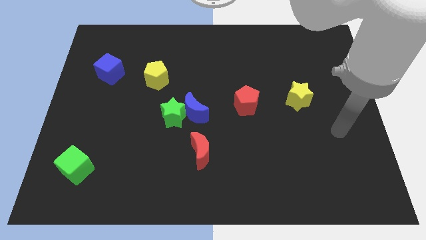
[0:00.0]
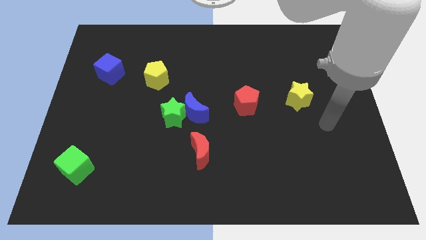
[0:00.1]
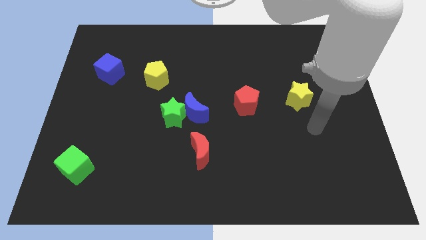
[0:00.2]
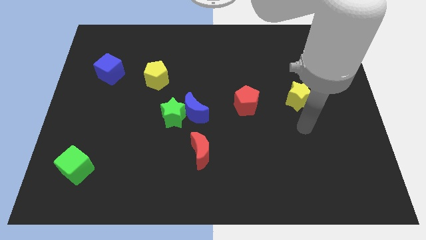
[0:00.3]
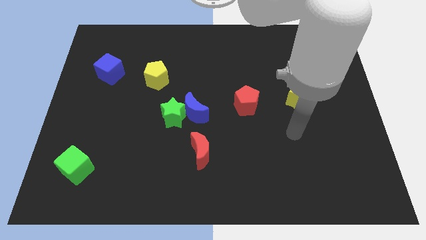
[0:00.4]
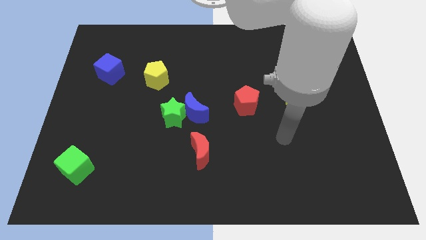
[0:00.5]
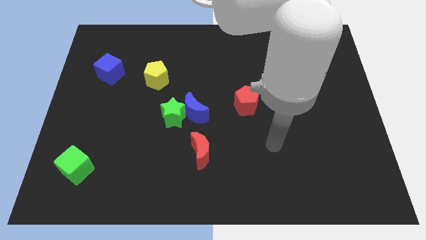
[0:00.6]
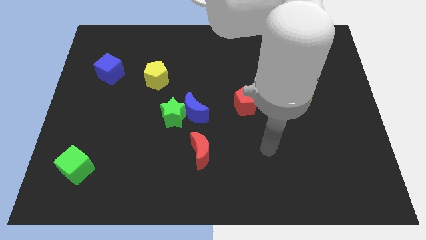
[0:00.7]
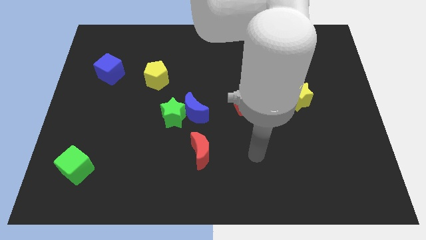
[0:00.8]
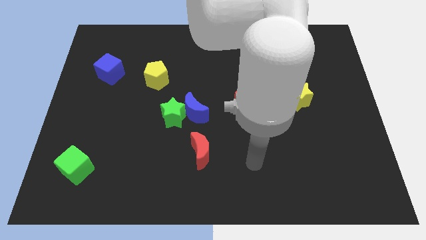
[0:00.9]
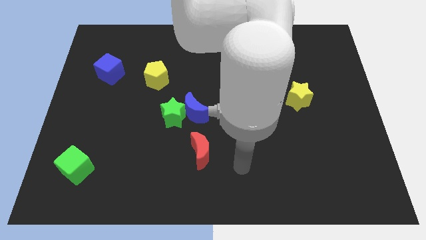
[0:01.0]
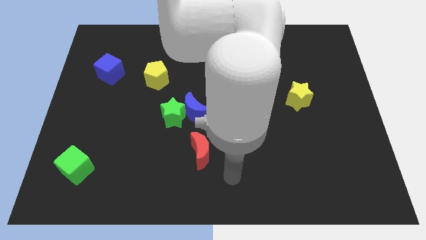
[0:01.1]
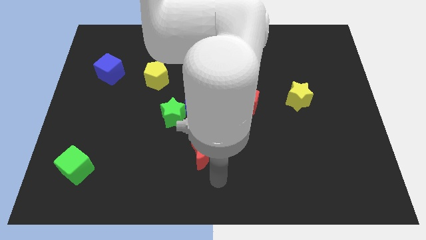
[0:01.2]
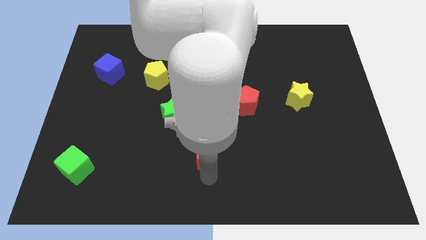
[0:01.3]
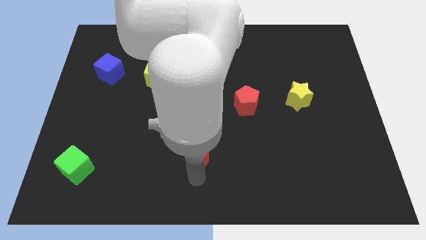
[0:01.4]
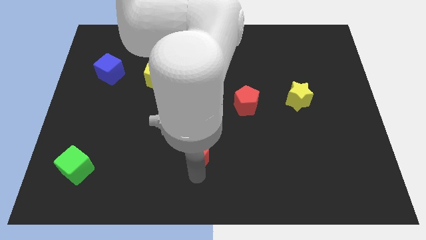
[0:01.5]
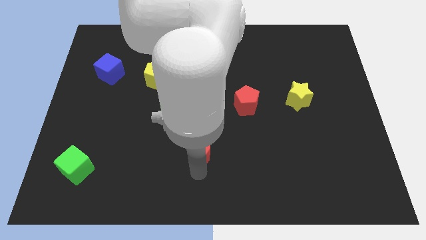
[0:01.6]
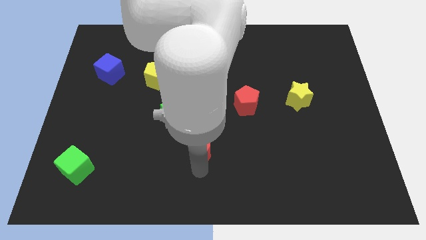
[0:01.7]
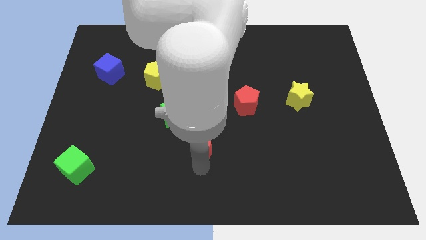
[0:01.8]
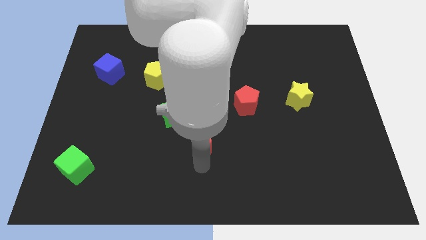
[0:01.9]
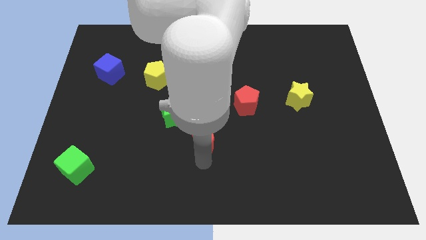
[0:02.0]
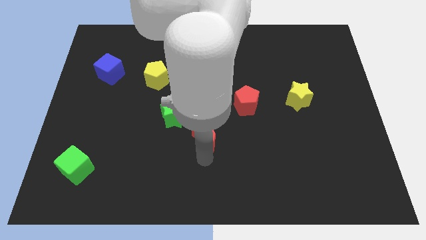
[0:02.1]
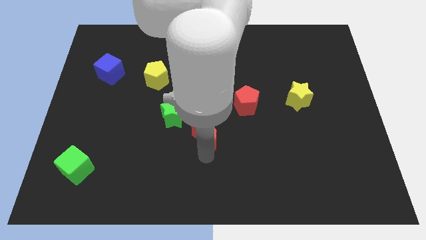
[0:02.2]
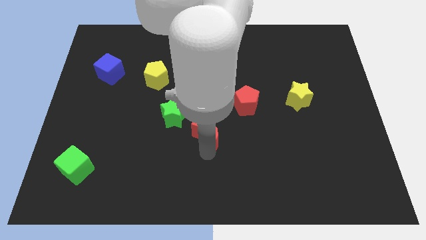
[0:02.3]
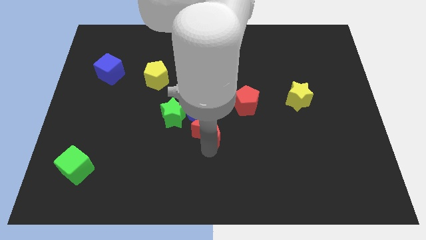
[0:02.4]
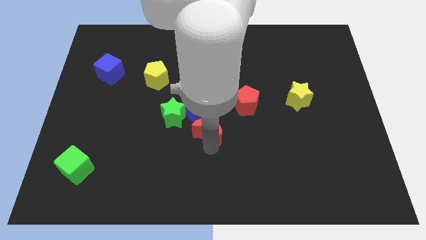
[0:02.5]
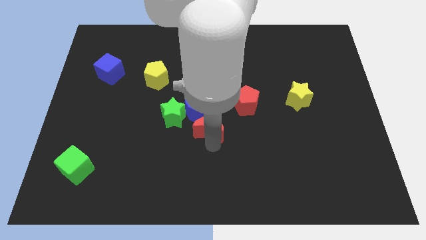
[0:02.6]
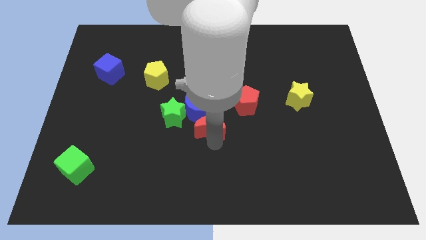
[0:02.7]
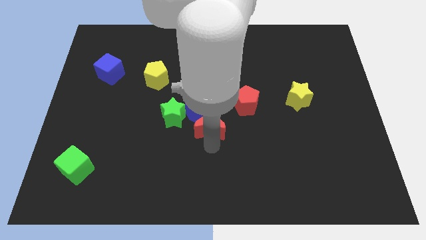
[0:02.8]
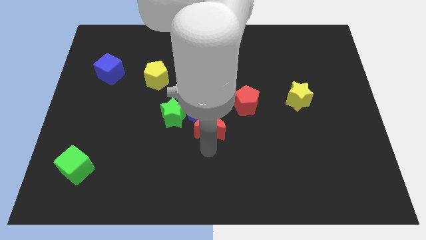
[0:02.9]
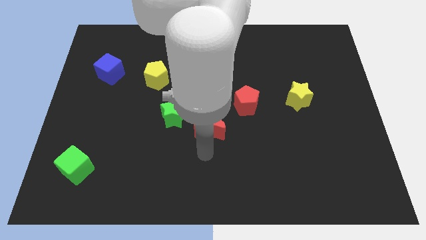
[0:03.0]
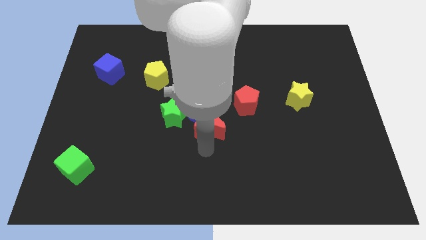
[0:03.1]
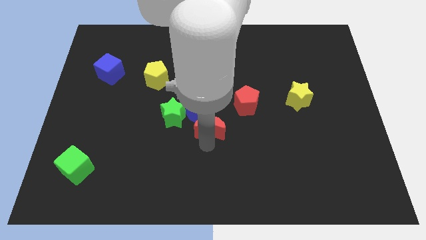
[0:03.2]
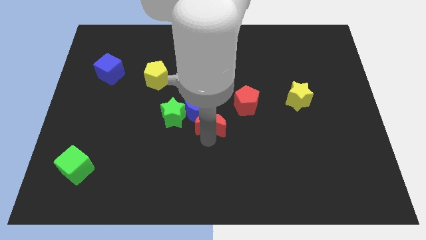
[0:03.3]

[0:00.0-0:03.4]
slide the red moon a little bit upwards

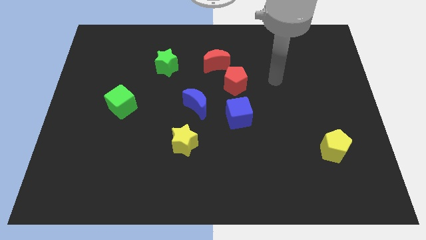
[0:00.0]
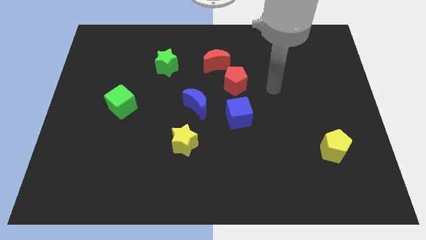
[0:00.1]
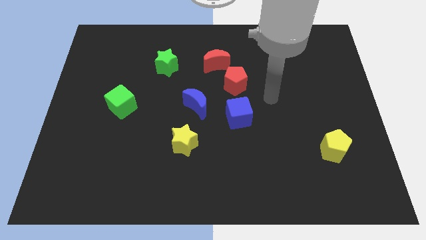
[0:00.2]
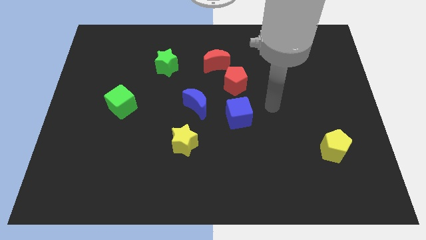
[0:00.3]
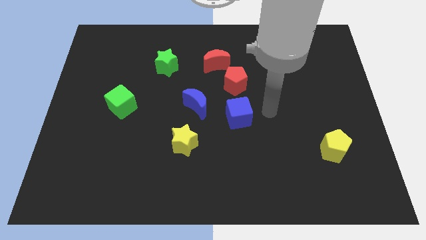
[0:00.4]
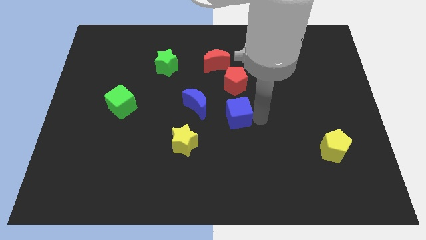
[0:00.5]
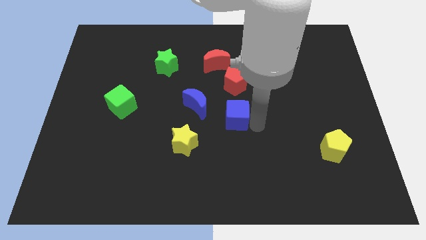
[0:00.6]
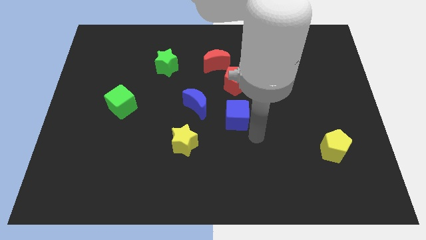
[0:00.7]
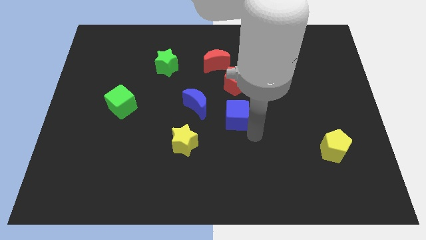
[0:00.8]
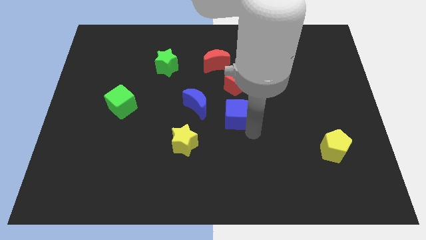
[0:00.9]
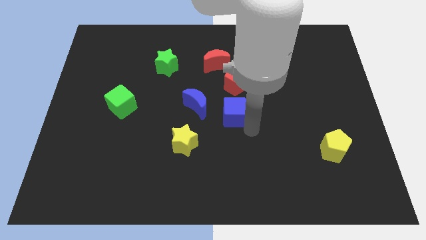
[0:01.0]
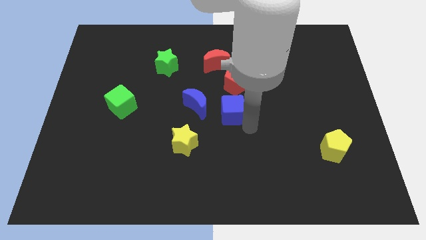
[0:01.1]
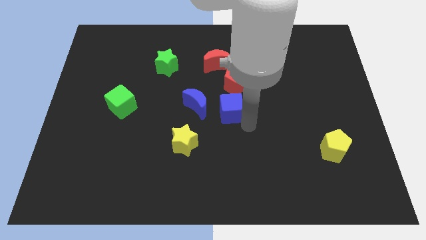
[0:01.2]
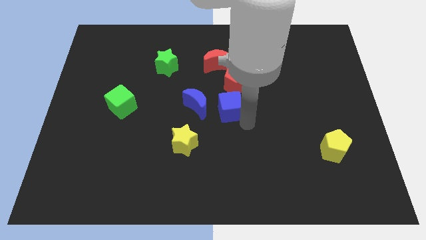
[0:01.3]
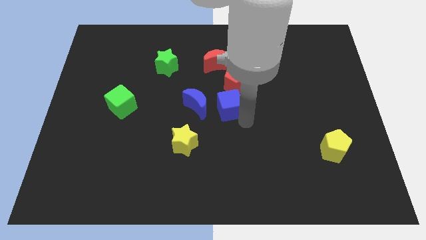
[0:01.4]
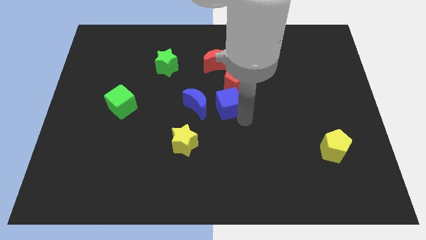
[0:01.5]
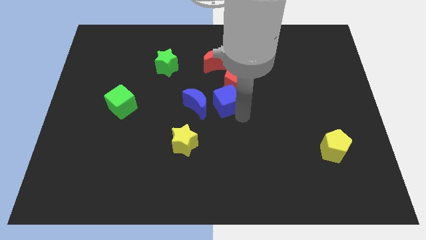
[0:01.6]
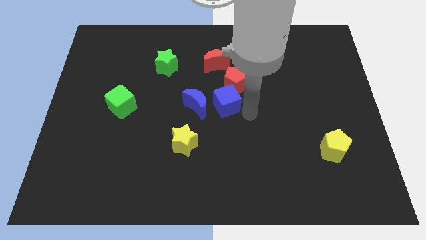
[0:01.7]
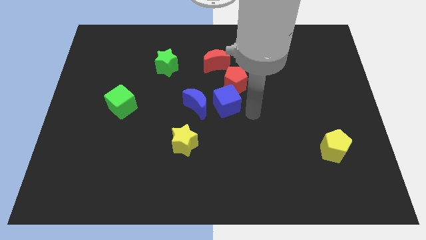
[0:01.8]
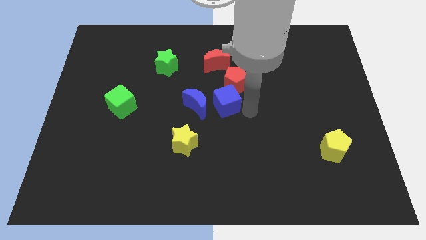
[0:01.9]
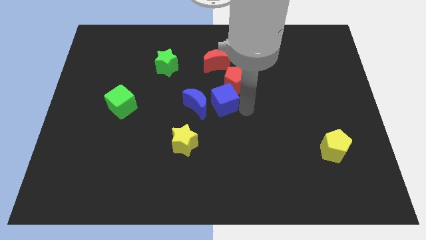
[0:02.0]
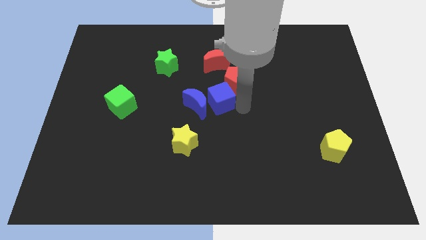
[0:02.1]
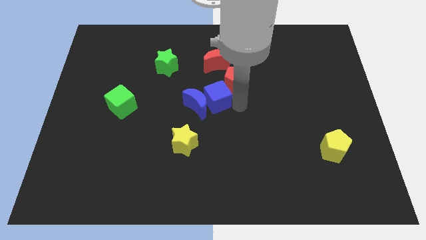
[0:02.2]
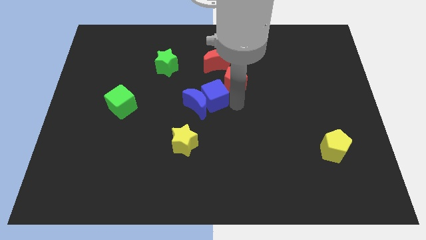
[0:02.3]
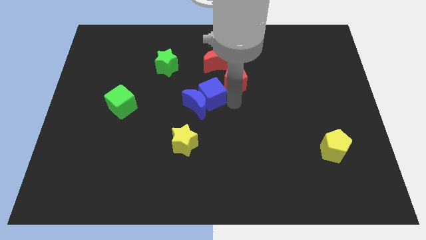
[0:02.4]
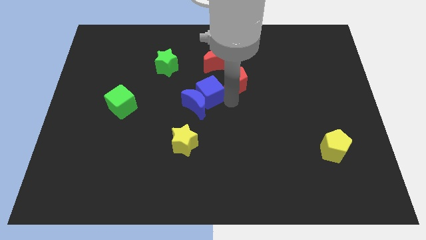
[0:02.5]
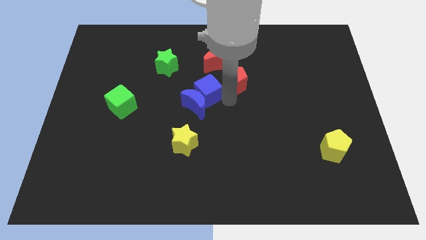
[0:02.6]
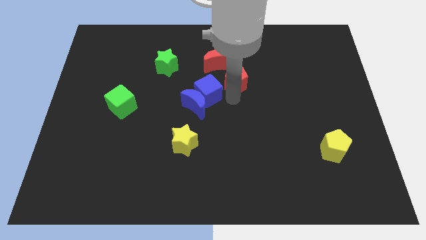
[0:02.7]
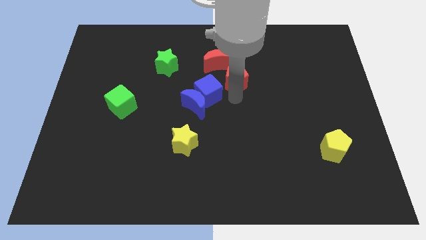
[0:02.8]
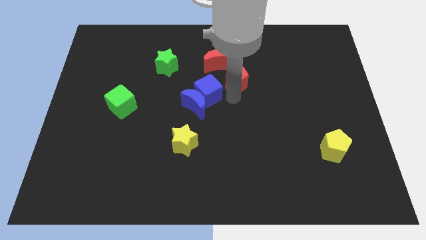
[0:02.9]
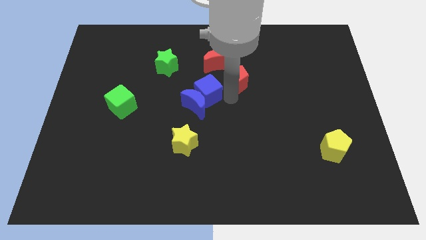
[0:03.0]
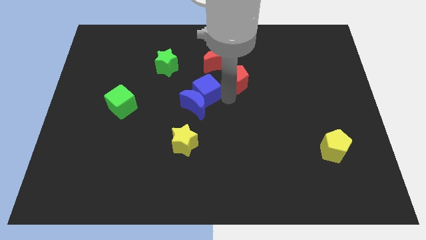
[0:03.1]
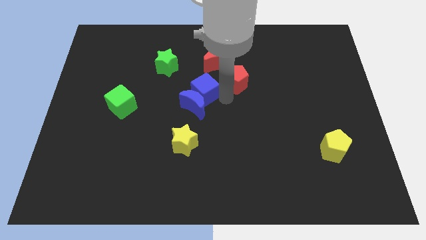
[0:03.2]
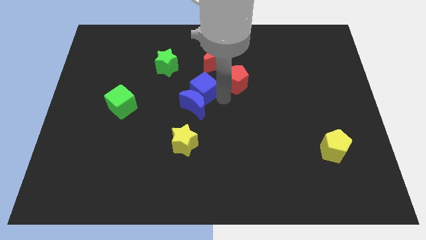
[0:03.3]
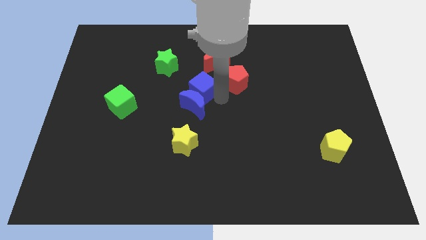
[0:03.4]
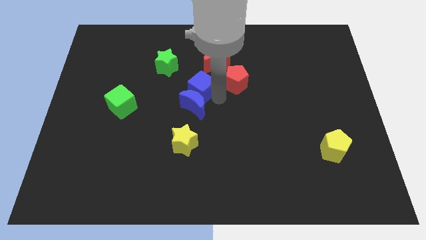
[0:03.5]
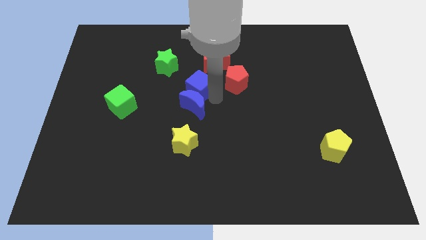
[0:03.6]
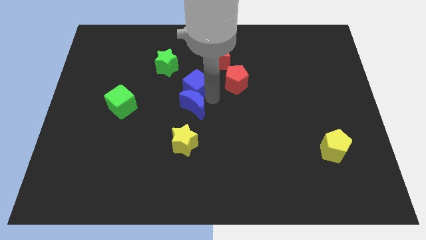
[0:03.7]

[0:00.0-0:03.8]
slightly move the blue cube left

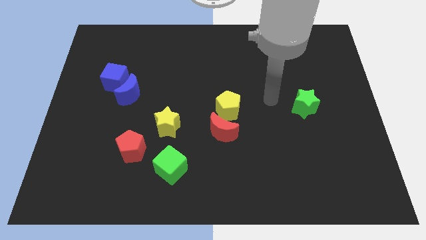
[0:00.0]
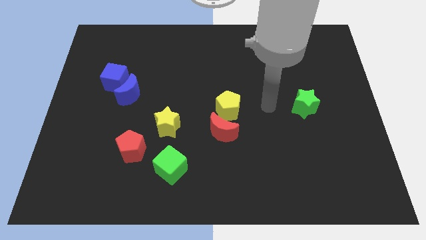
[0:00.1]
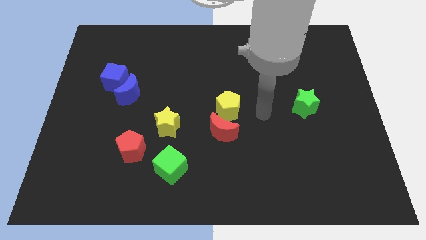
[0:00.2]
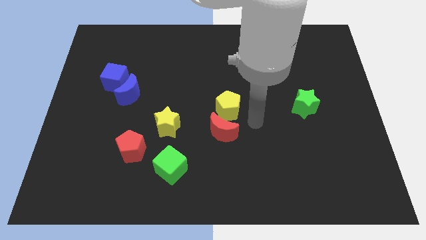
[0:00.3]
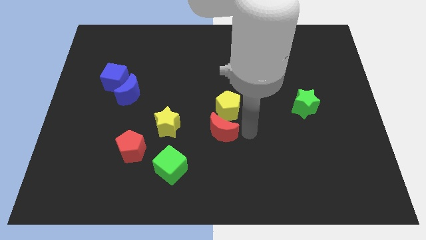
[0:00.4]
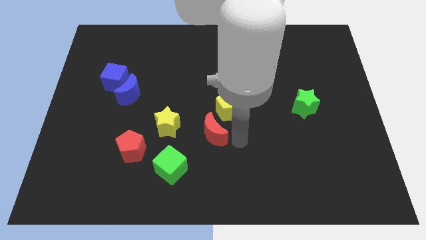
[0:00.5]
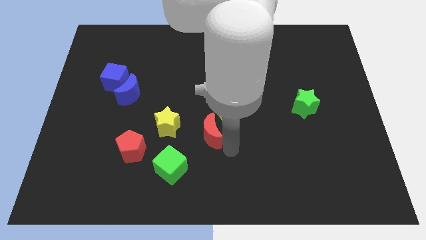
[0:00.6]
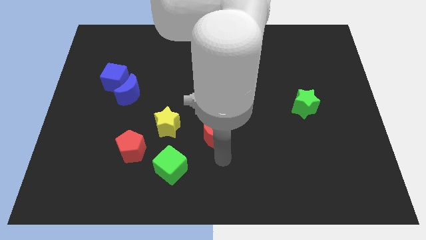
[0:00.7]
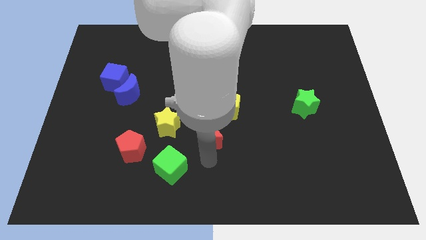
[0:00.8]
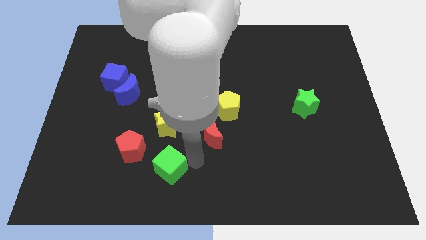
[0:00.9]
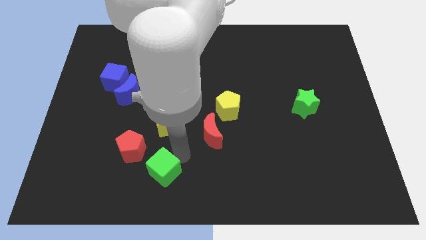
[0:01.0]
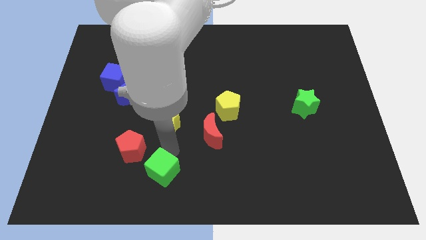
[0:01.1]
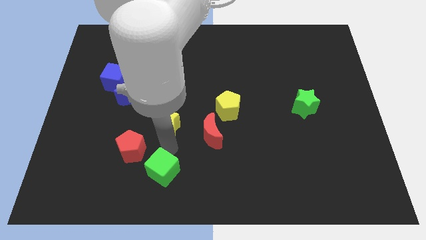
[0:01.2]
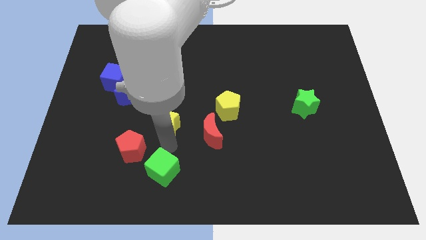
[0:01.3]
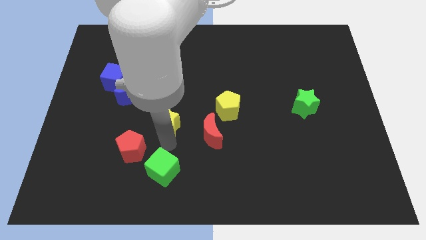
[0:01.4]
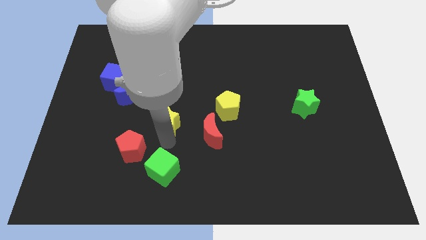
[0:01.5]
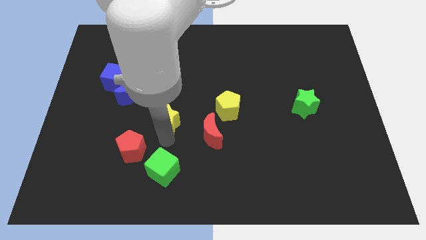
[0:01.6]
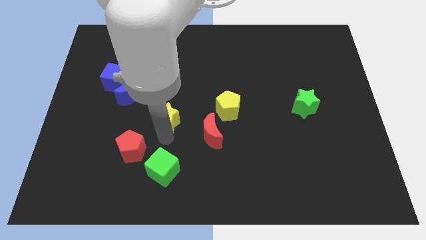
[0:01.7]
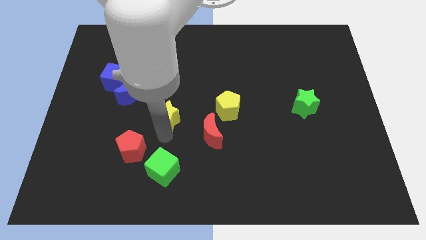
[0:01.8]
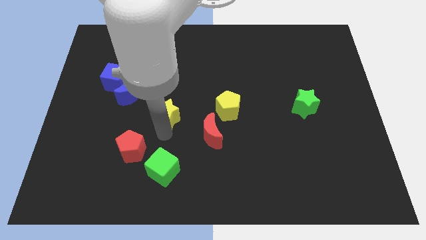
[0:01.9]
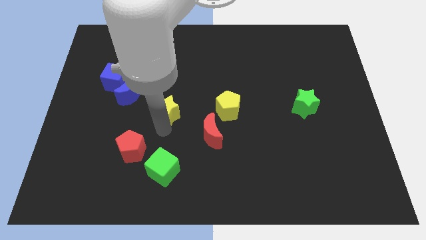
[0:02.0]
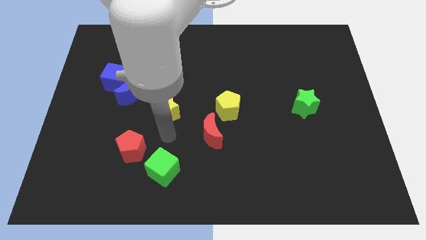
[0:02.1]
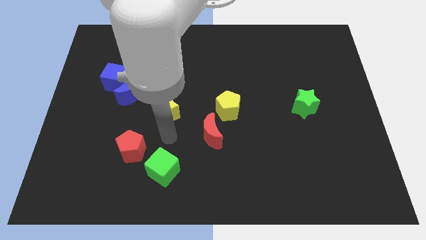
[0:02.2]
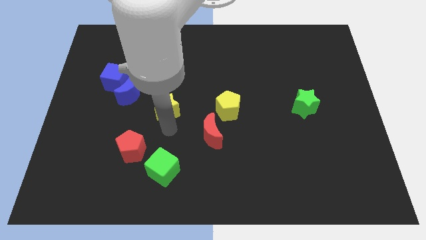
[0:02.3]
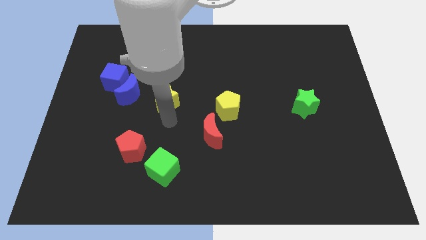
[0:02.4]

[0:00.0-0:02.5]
push the yellow star a bit upwards
